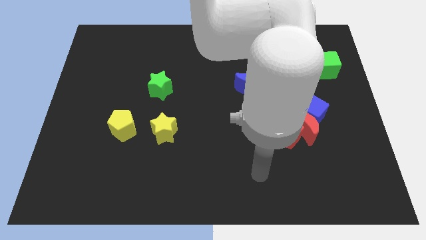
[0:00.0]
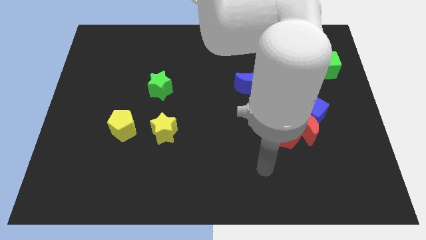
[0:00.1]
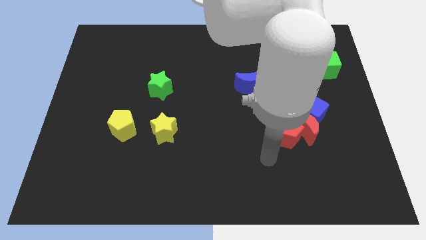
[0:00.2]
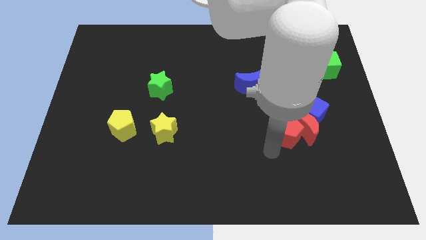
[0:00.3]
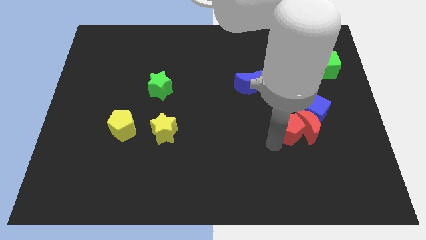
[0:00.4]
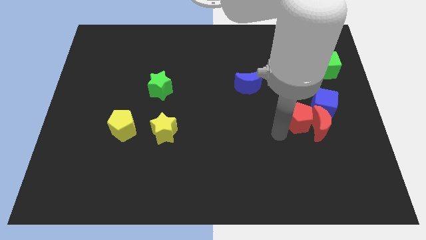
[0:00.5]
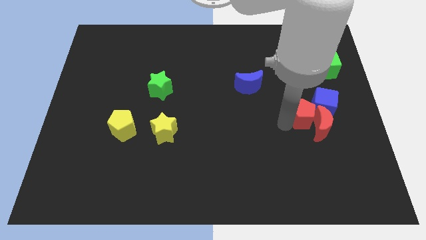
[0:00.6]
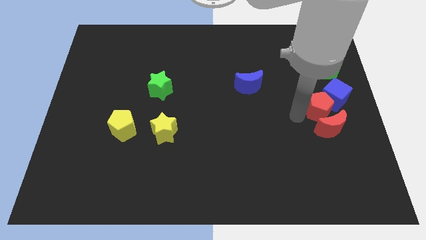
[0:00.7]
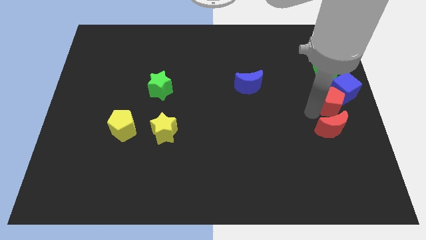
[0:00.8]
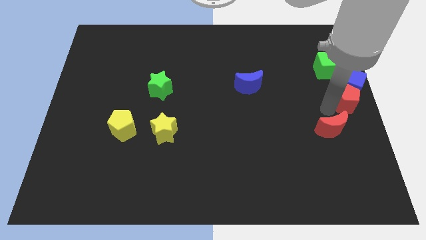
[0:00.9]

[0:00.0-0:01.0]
pull the red moon apart from the red pentagon and blue cube

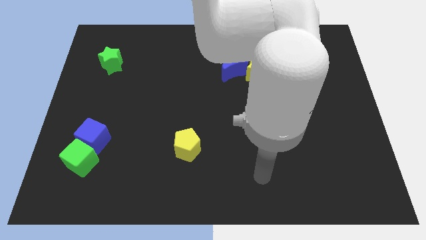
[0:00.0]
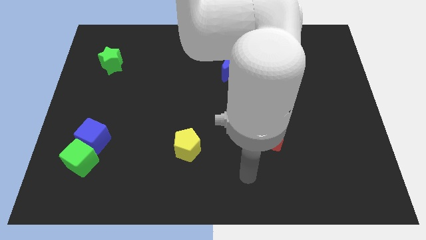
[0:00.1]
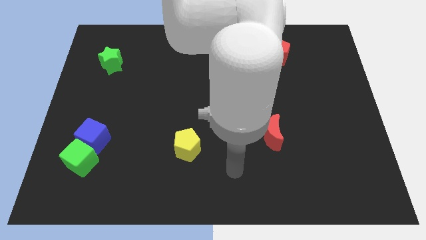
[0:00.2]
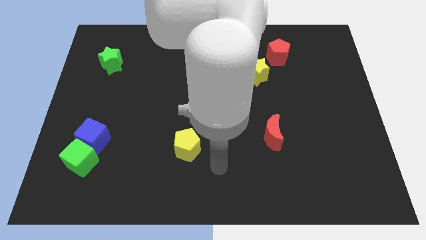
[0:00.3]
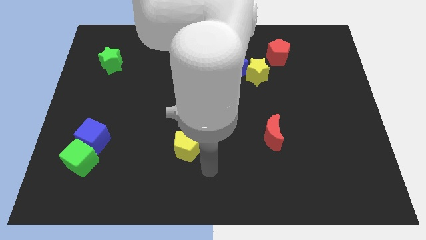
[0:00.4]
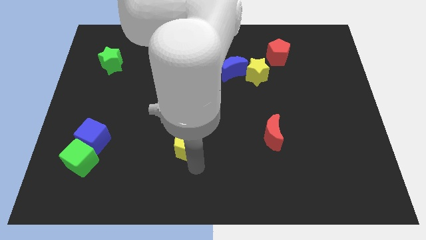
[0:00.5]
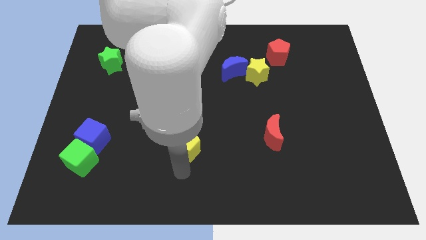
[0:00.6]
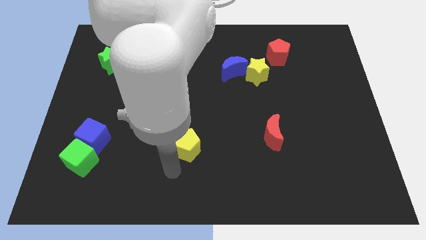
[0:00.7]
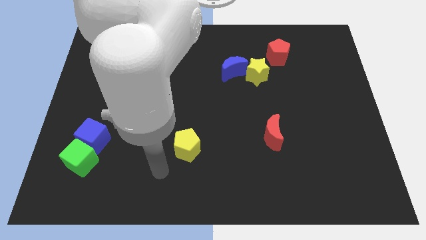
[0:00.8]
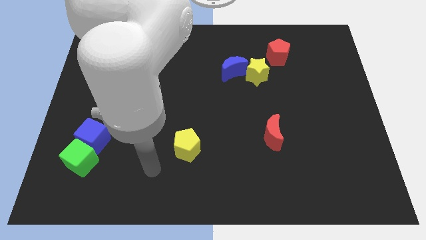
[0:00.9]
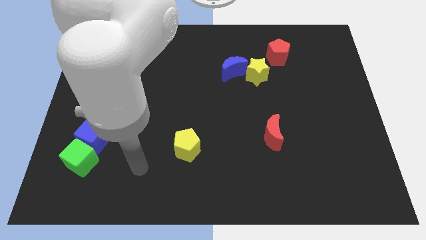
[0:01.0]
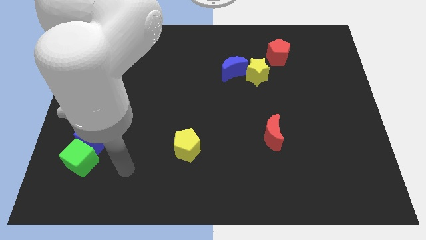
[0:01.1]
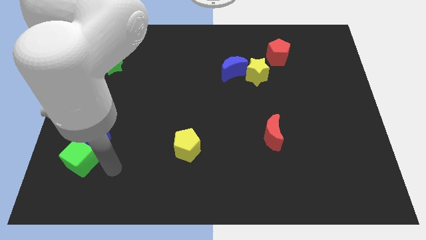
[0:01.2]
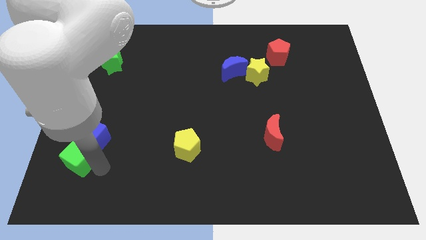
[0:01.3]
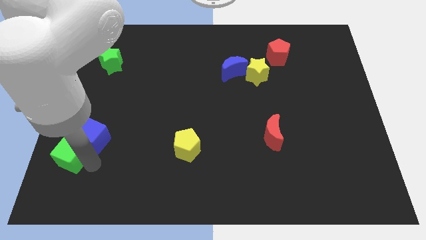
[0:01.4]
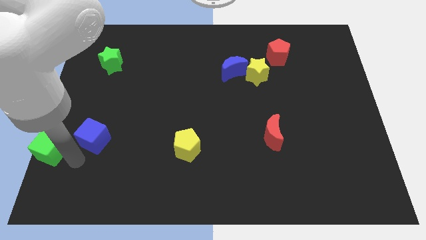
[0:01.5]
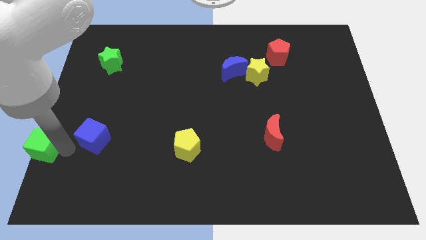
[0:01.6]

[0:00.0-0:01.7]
move the blue cube away from the green cube

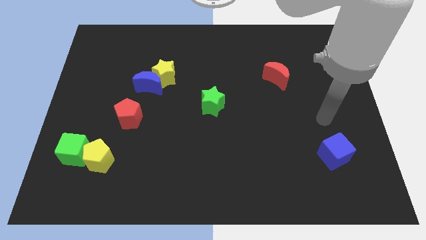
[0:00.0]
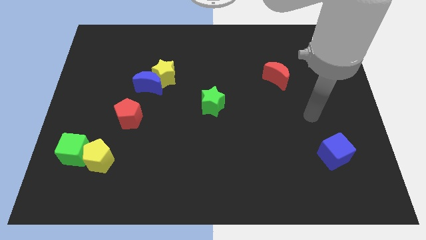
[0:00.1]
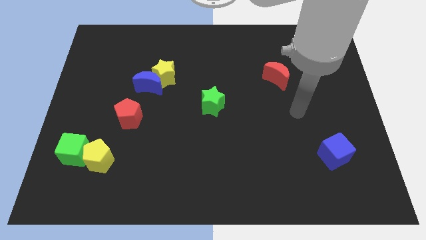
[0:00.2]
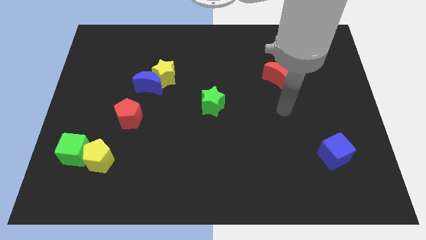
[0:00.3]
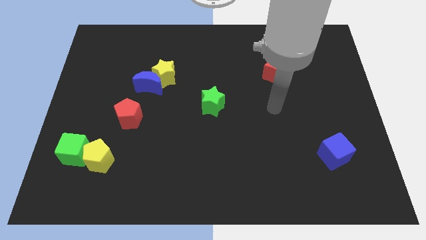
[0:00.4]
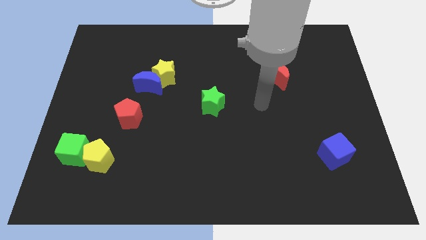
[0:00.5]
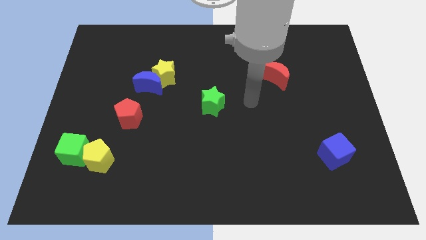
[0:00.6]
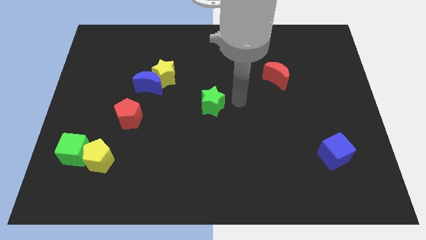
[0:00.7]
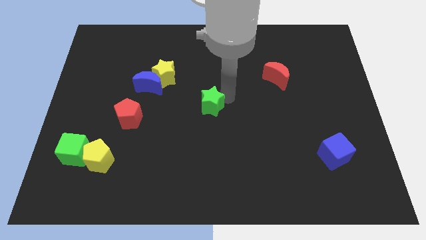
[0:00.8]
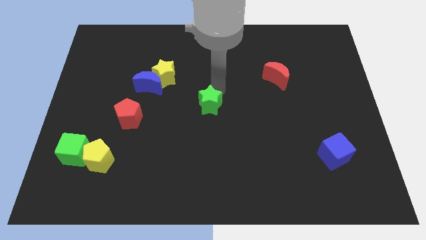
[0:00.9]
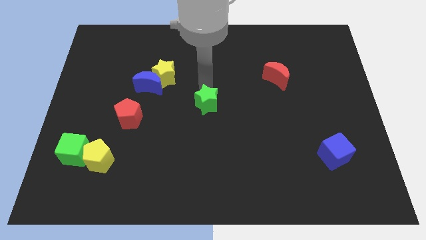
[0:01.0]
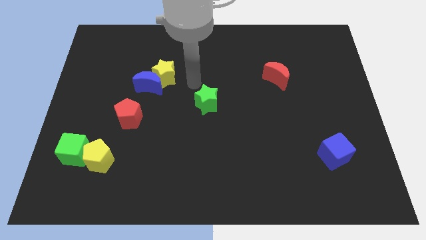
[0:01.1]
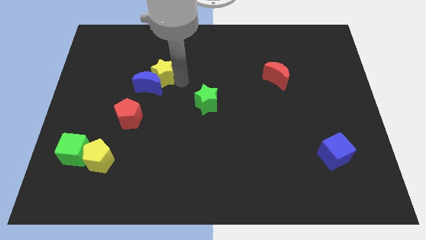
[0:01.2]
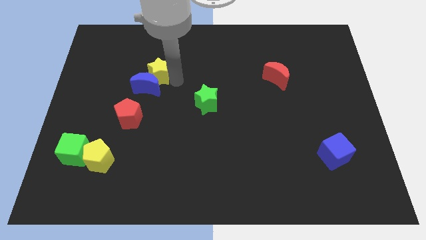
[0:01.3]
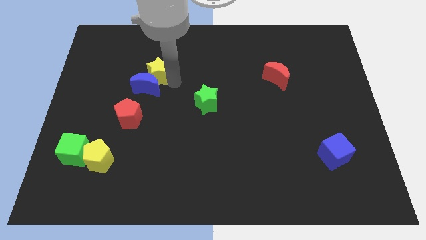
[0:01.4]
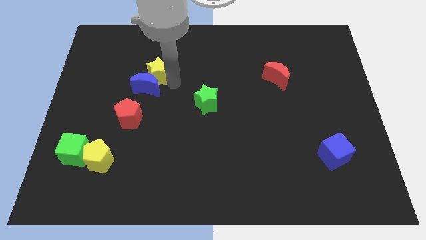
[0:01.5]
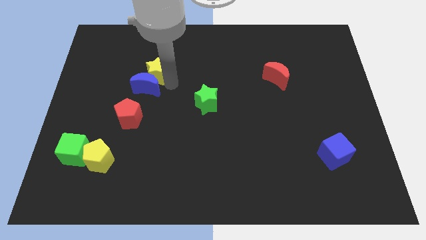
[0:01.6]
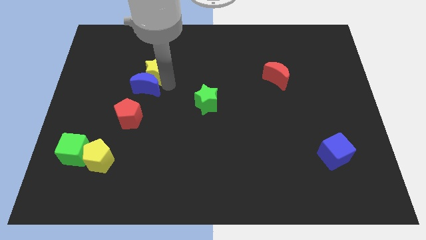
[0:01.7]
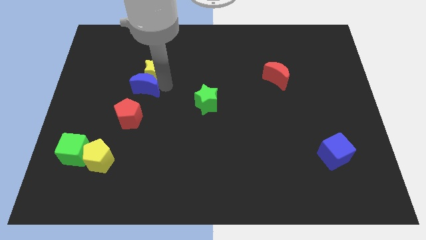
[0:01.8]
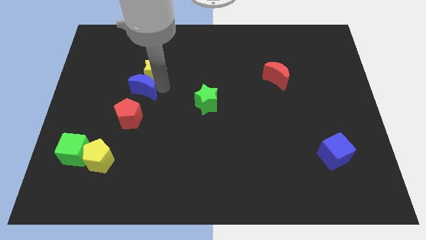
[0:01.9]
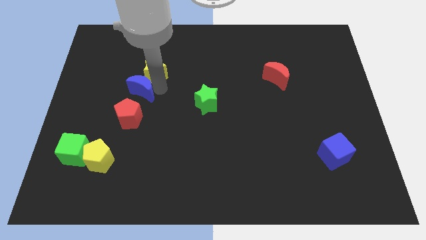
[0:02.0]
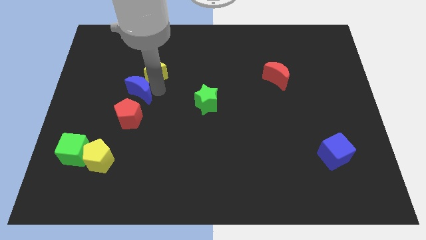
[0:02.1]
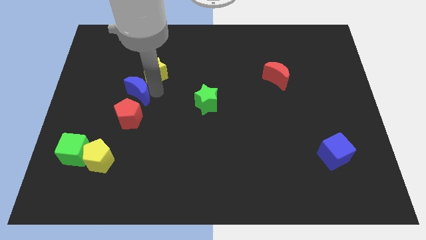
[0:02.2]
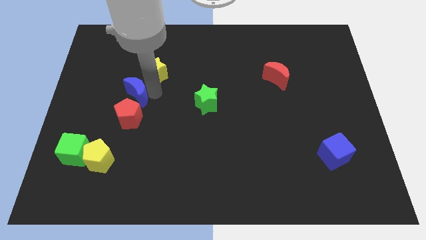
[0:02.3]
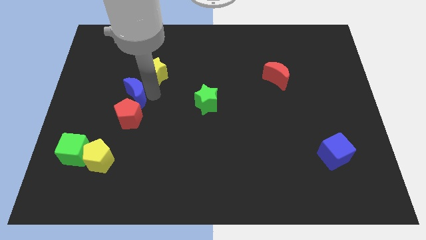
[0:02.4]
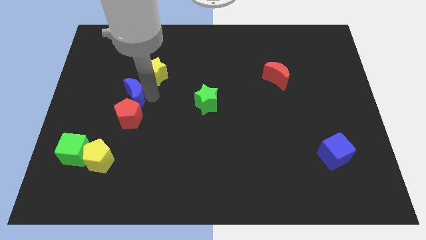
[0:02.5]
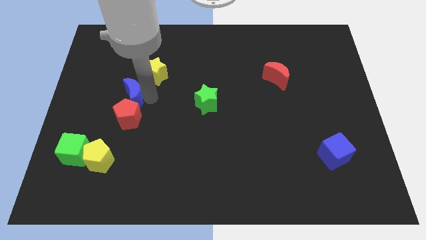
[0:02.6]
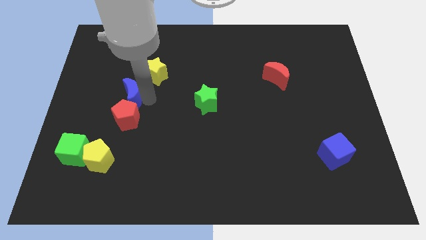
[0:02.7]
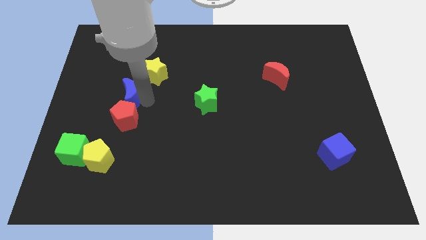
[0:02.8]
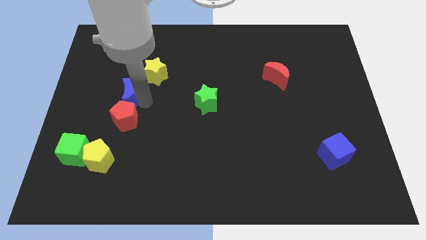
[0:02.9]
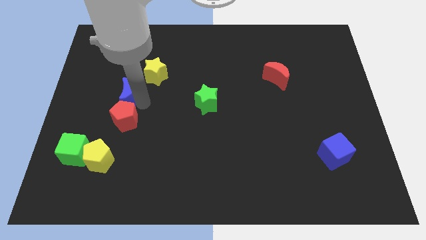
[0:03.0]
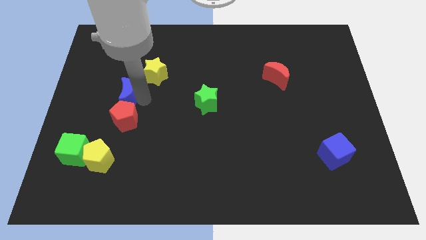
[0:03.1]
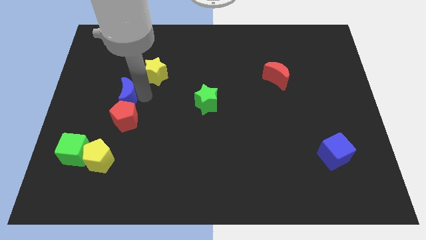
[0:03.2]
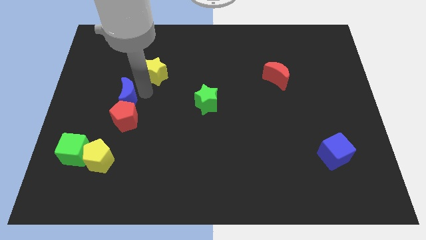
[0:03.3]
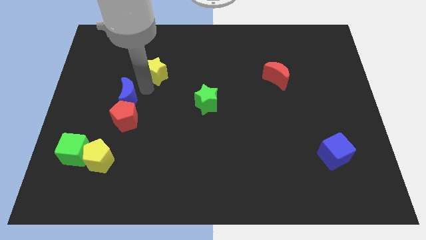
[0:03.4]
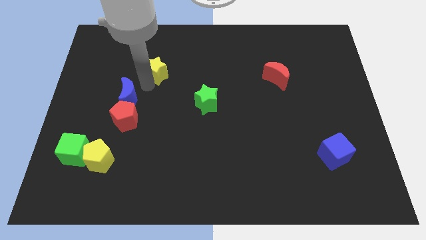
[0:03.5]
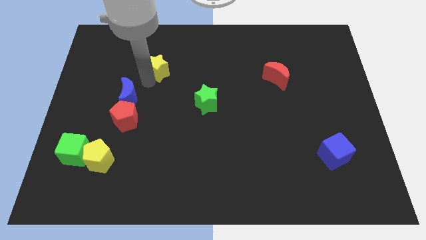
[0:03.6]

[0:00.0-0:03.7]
move the blue moon away from the yellow star

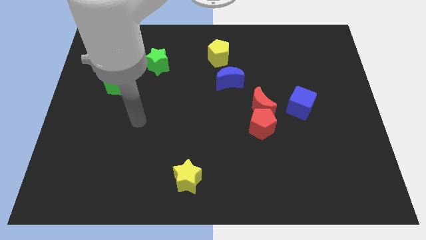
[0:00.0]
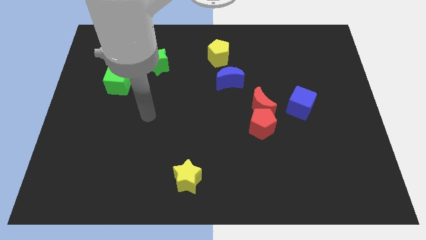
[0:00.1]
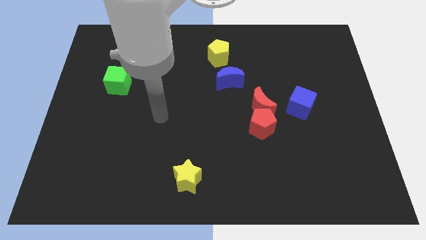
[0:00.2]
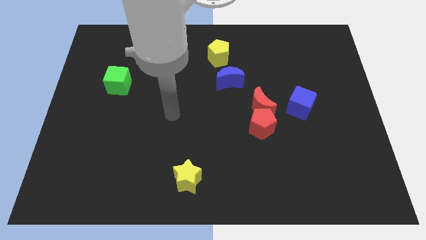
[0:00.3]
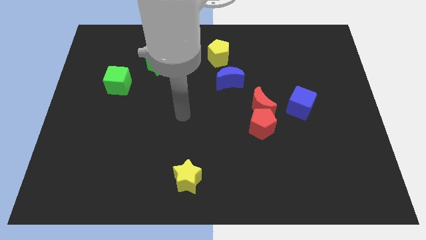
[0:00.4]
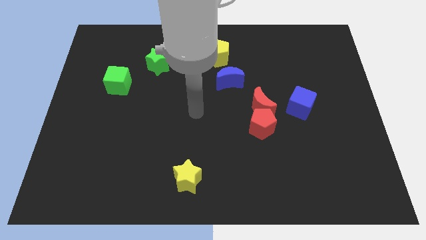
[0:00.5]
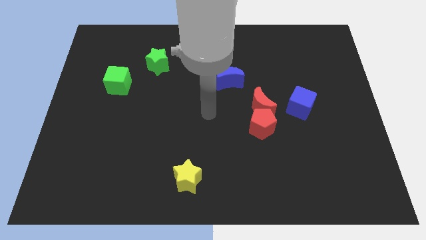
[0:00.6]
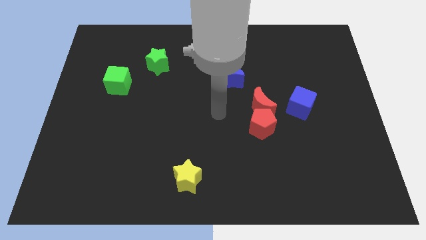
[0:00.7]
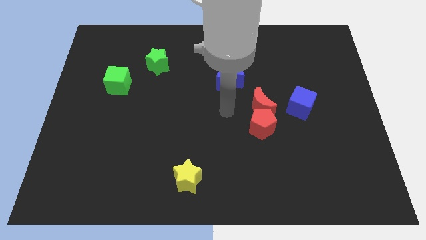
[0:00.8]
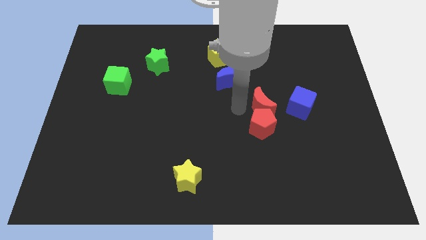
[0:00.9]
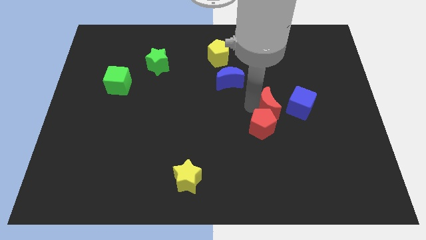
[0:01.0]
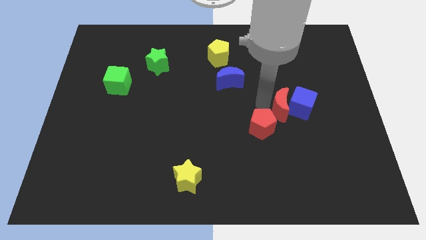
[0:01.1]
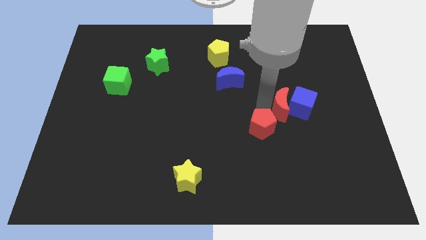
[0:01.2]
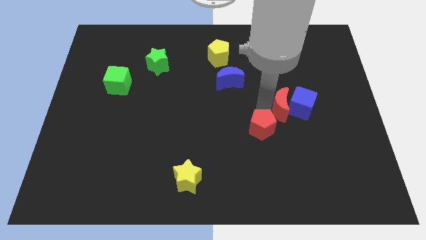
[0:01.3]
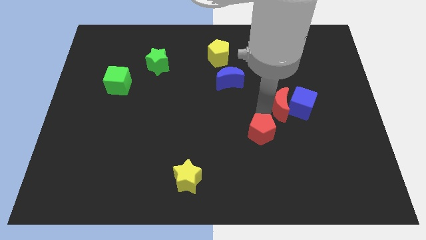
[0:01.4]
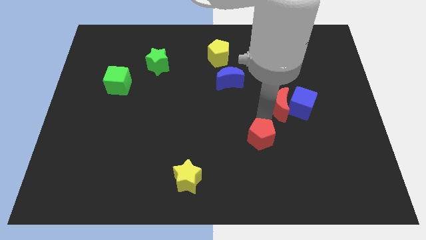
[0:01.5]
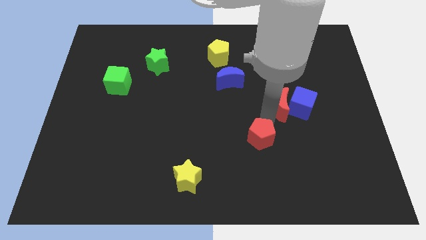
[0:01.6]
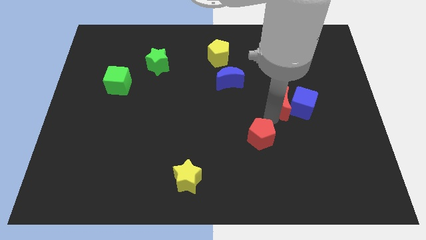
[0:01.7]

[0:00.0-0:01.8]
separate the red pentagon from the red moon

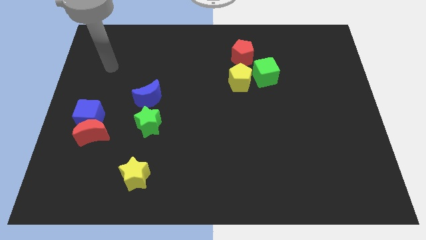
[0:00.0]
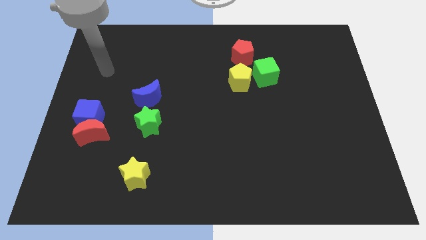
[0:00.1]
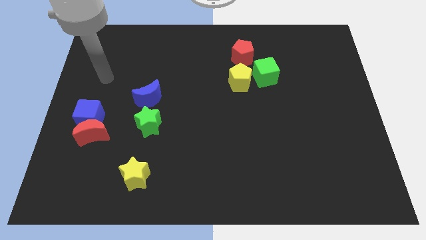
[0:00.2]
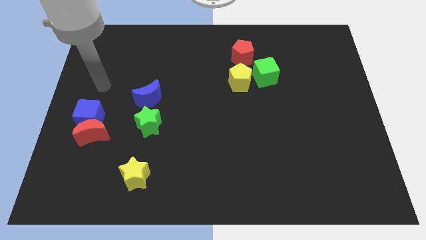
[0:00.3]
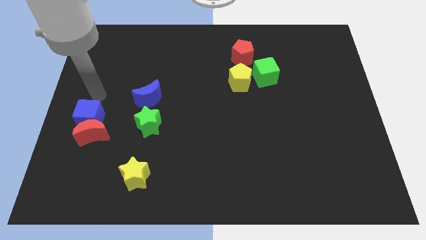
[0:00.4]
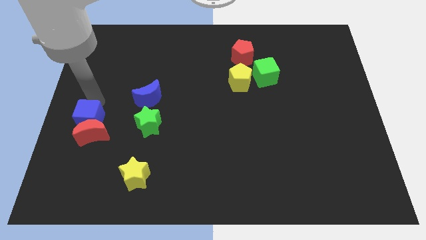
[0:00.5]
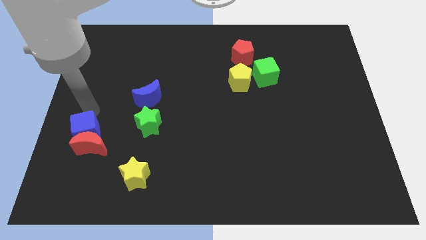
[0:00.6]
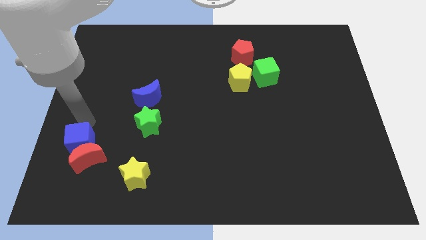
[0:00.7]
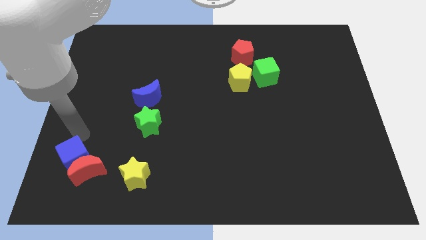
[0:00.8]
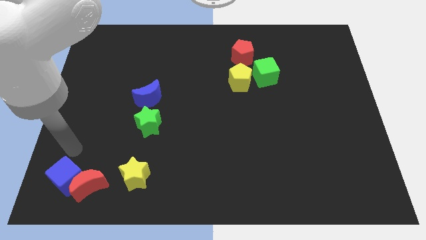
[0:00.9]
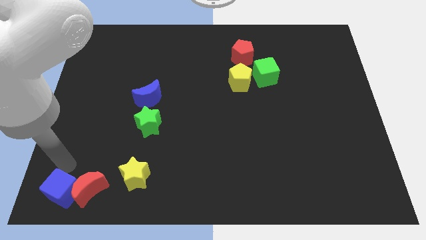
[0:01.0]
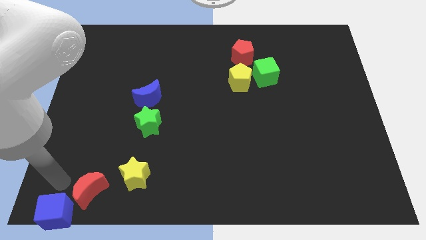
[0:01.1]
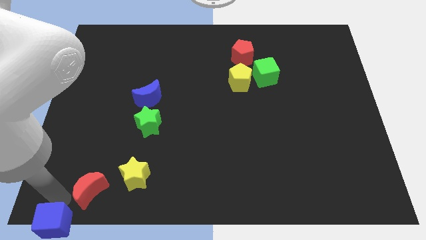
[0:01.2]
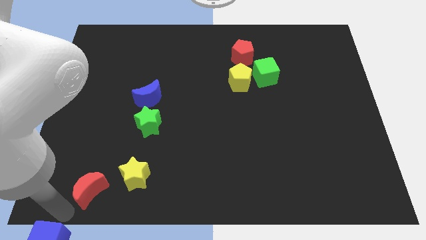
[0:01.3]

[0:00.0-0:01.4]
pull the red moon apart from the blue cube
